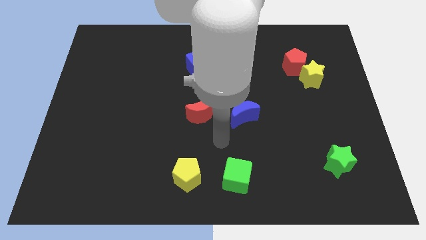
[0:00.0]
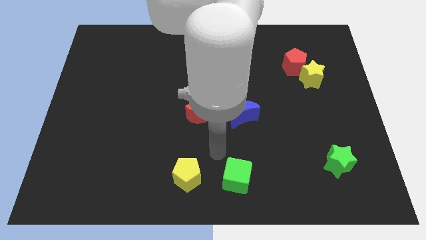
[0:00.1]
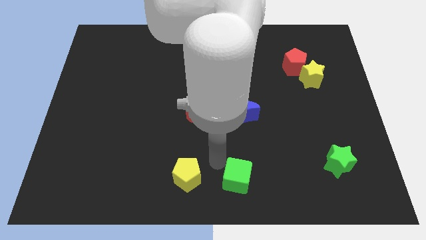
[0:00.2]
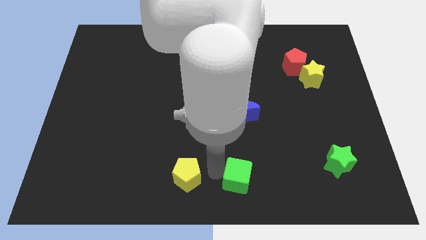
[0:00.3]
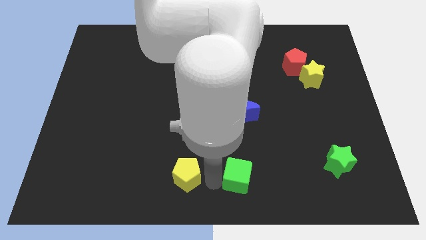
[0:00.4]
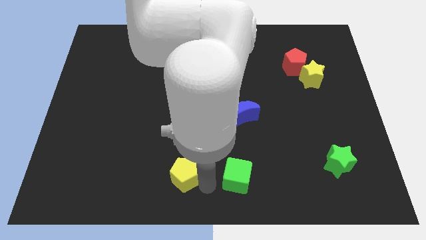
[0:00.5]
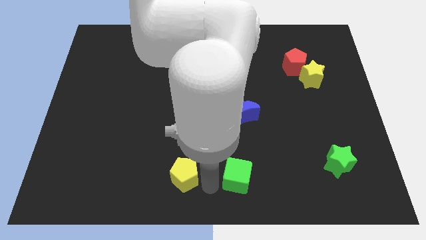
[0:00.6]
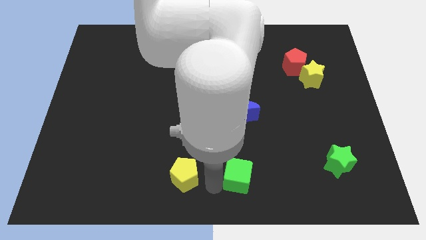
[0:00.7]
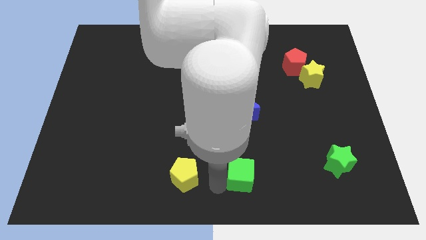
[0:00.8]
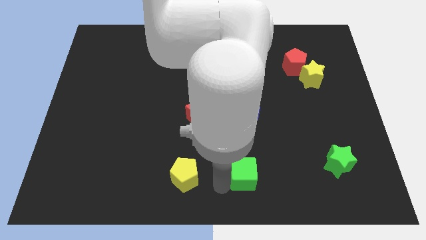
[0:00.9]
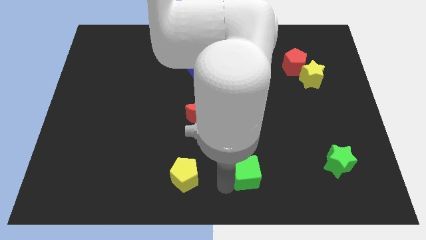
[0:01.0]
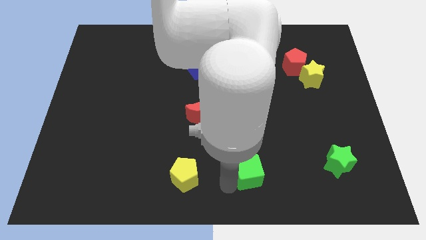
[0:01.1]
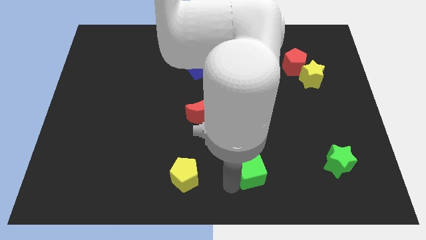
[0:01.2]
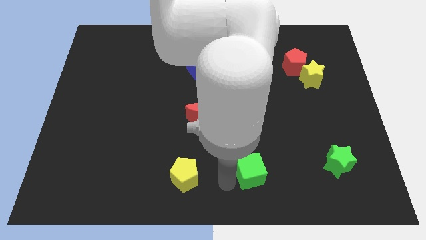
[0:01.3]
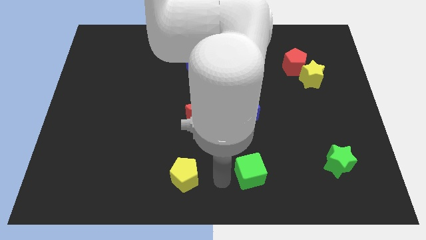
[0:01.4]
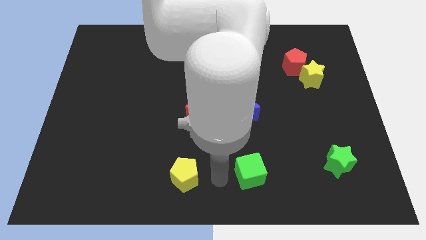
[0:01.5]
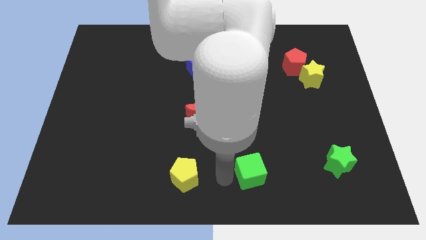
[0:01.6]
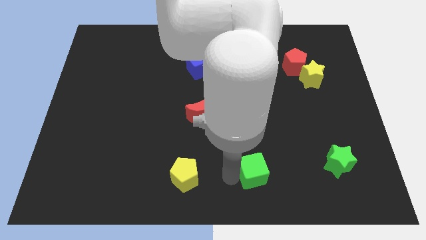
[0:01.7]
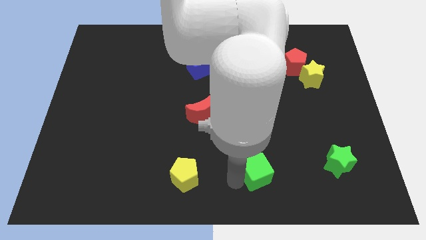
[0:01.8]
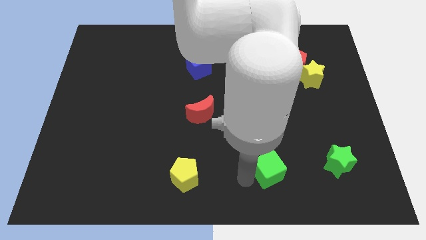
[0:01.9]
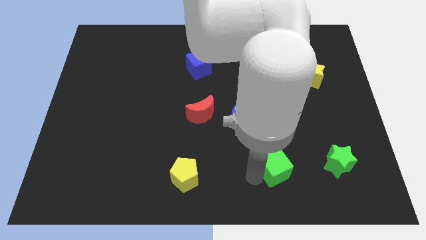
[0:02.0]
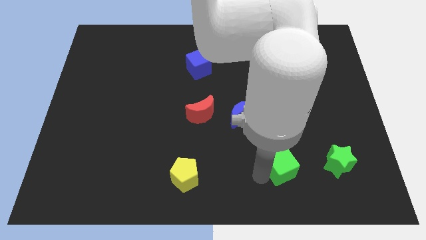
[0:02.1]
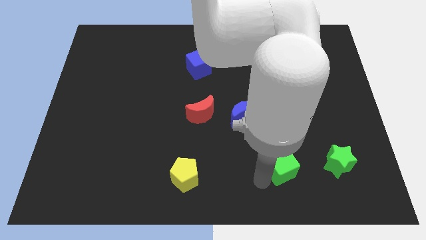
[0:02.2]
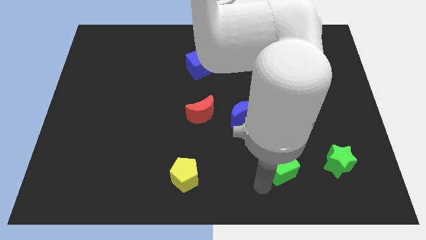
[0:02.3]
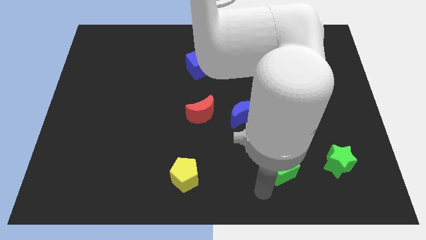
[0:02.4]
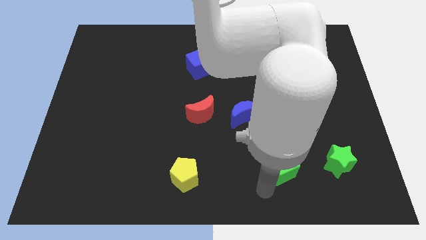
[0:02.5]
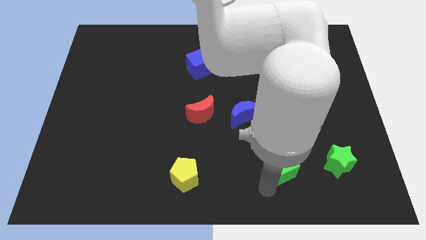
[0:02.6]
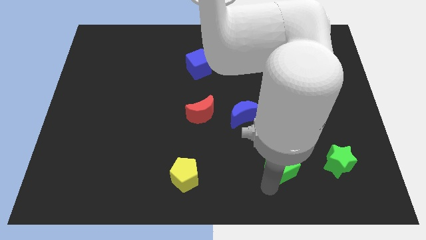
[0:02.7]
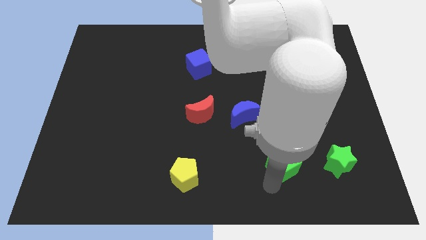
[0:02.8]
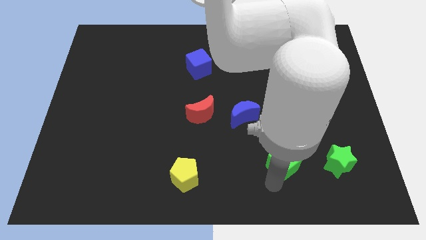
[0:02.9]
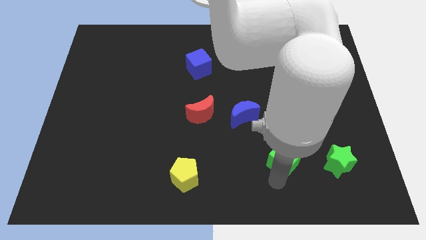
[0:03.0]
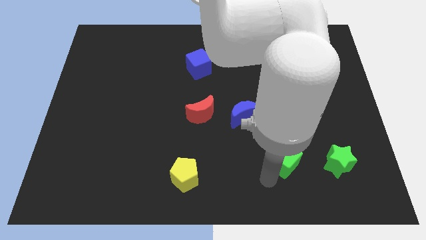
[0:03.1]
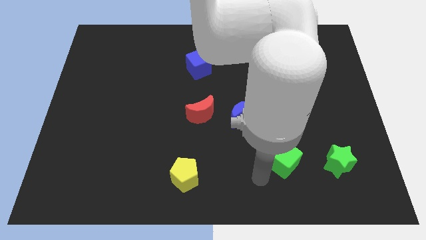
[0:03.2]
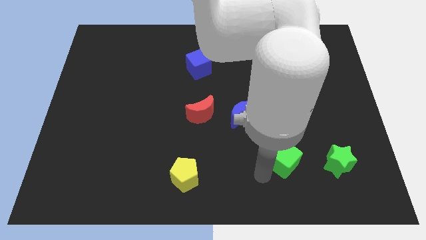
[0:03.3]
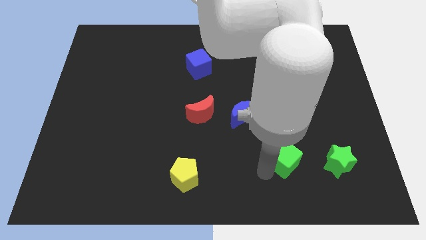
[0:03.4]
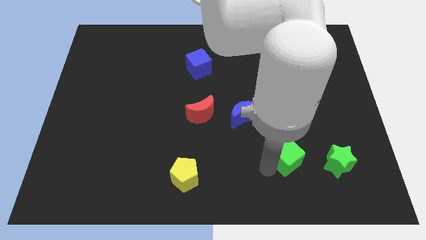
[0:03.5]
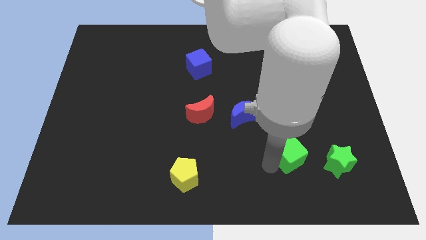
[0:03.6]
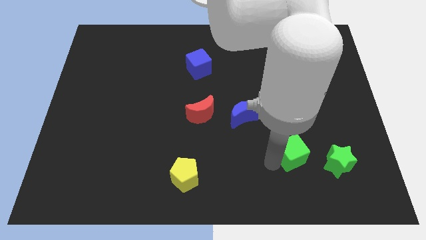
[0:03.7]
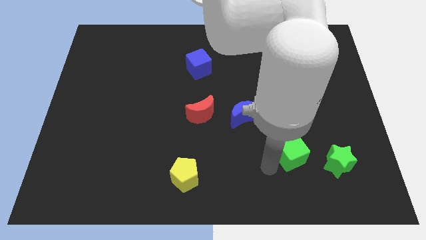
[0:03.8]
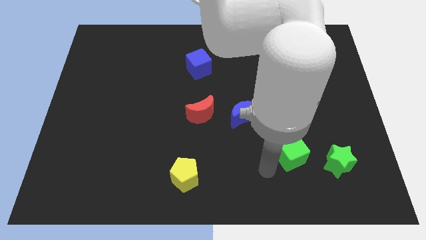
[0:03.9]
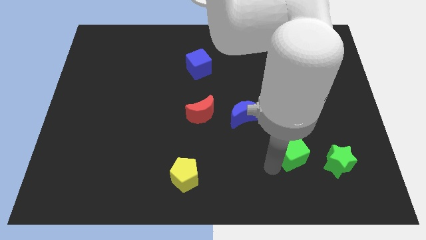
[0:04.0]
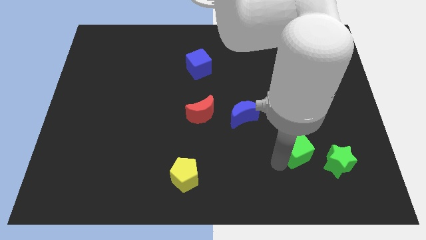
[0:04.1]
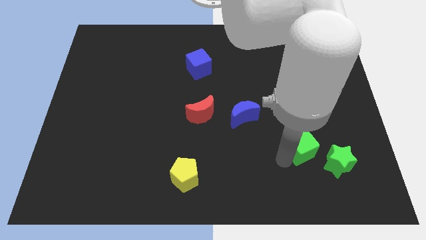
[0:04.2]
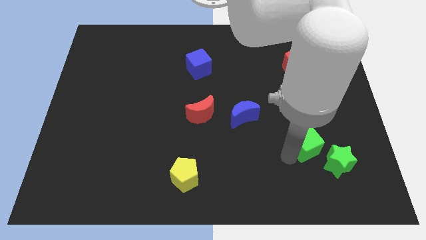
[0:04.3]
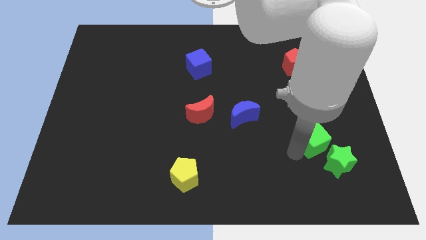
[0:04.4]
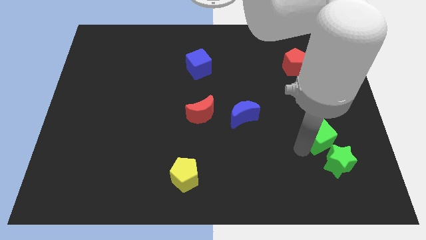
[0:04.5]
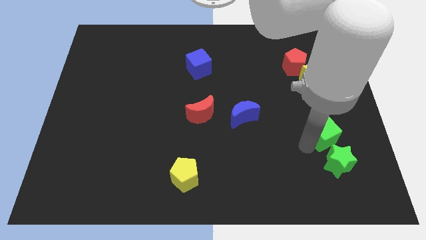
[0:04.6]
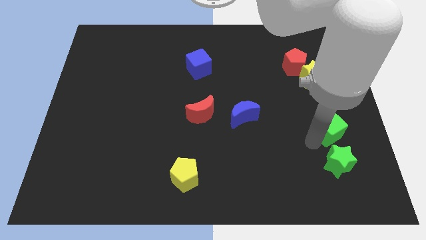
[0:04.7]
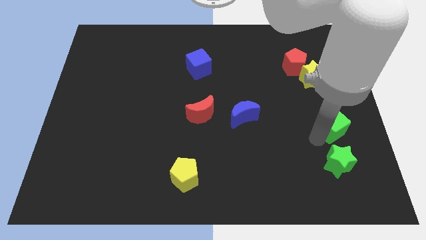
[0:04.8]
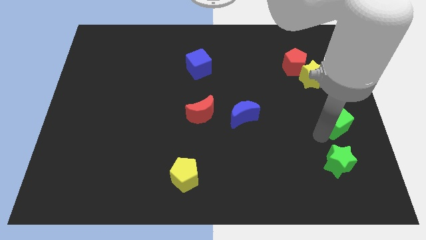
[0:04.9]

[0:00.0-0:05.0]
slide the green cube to the center right

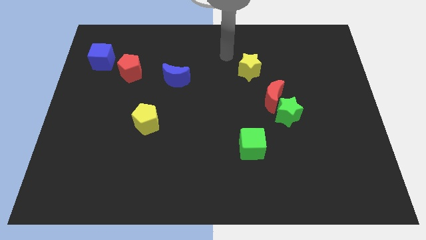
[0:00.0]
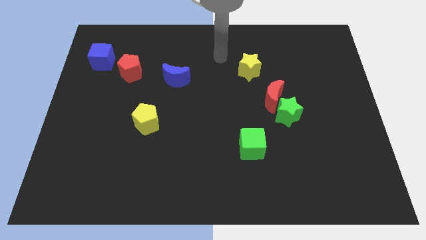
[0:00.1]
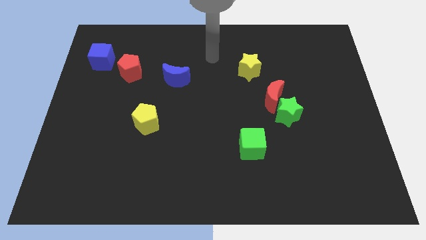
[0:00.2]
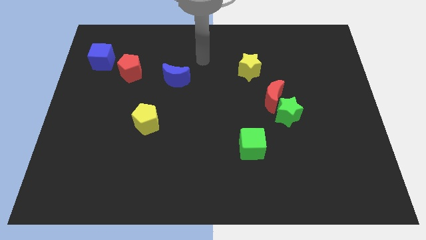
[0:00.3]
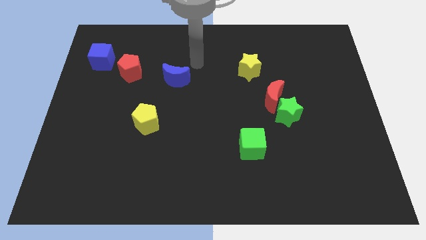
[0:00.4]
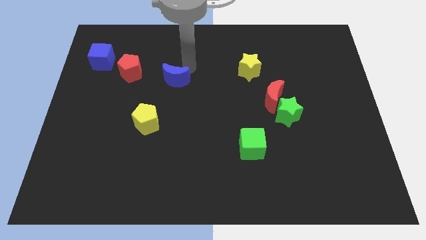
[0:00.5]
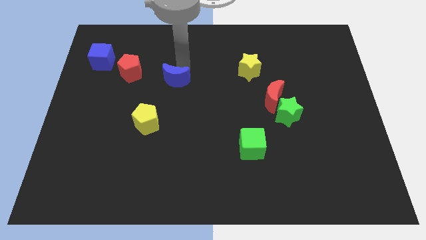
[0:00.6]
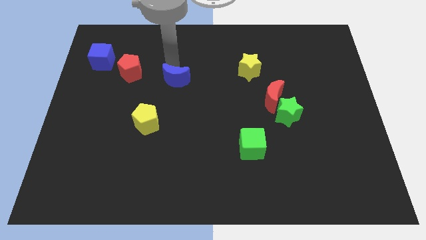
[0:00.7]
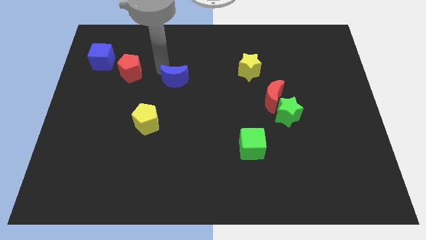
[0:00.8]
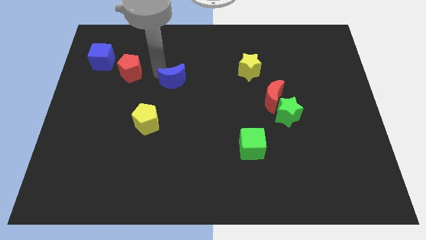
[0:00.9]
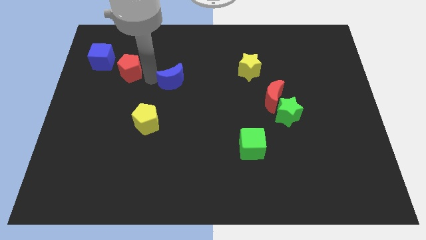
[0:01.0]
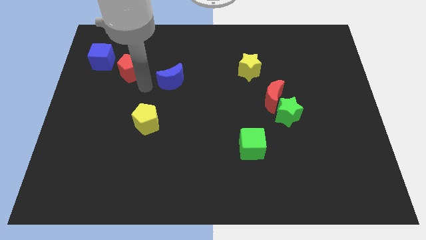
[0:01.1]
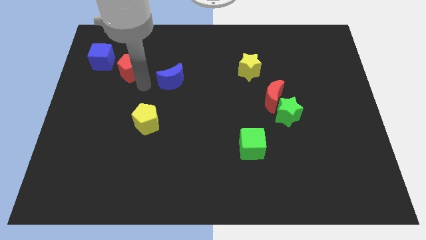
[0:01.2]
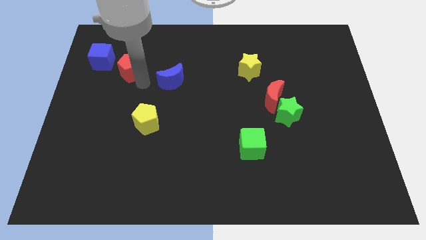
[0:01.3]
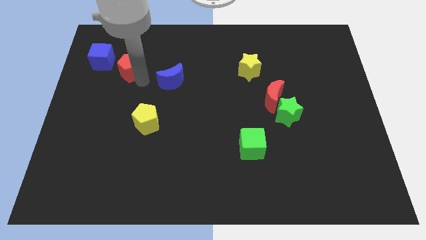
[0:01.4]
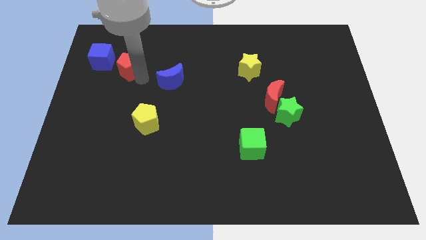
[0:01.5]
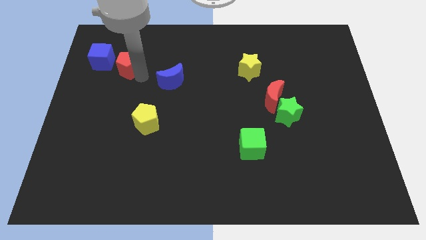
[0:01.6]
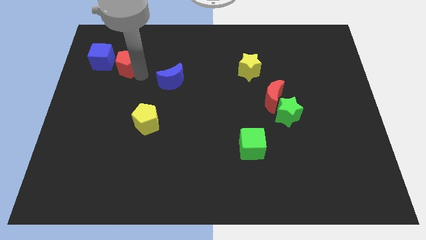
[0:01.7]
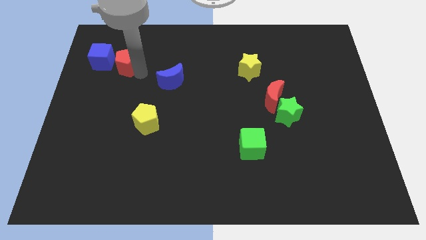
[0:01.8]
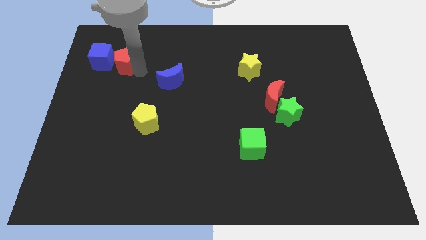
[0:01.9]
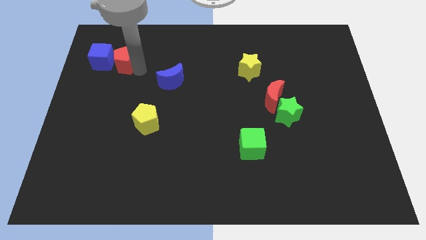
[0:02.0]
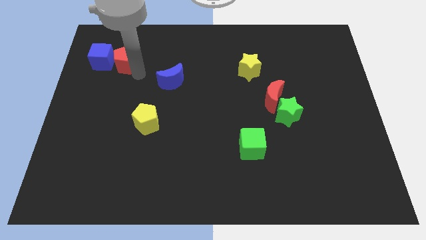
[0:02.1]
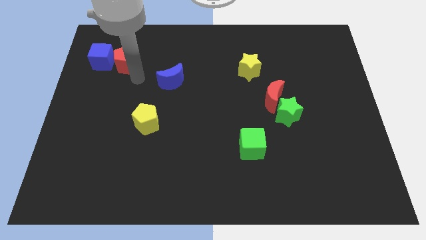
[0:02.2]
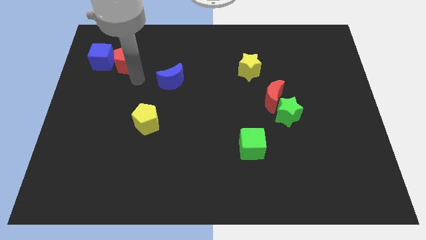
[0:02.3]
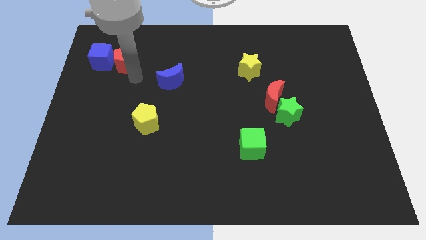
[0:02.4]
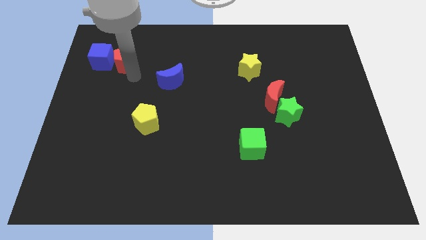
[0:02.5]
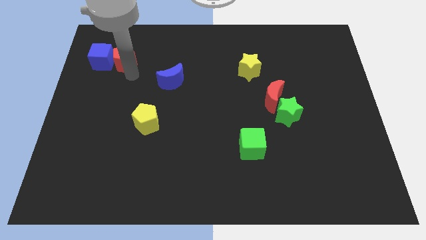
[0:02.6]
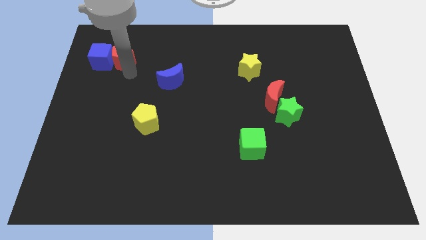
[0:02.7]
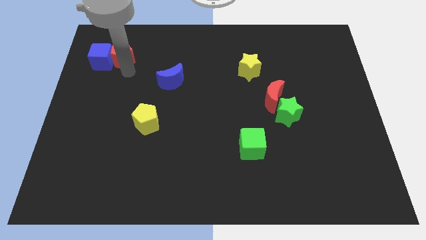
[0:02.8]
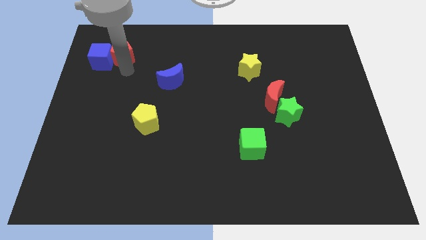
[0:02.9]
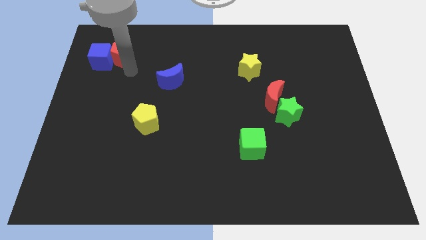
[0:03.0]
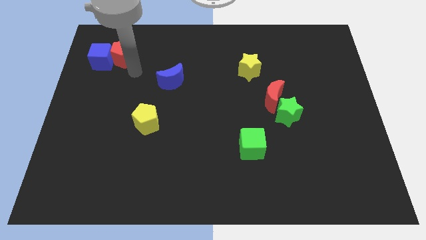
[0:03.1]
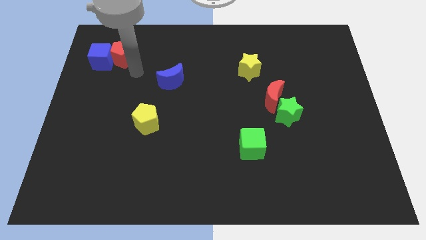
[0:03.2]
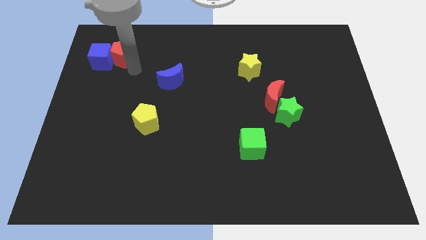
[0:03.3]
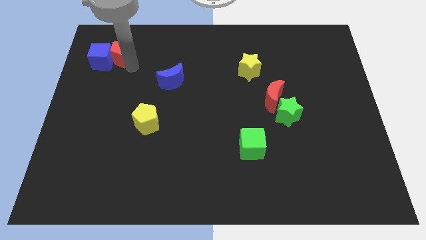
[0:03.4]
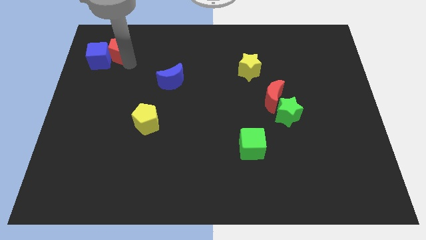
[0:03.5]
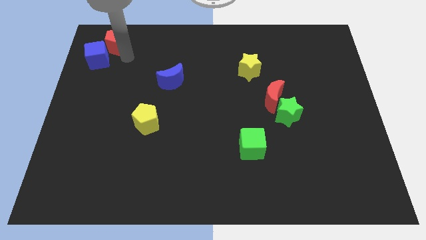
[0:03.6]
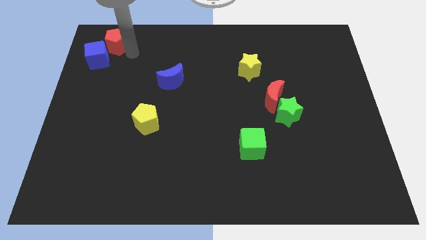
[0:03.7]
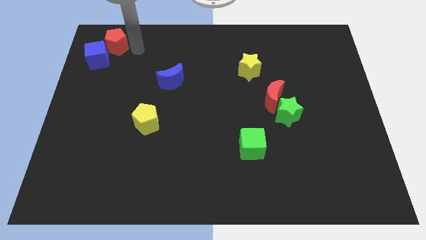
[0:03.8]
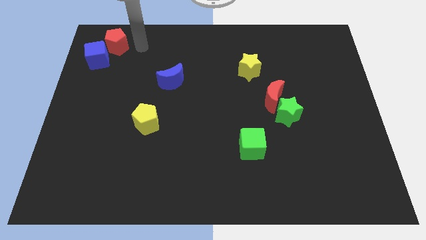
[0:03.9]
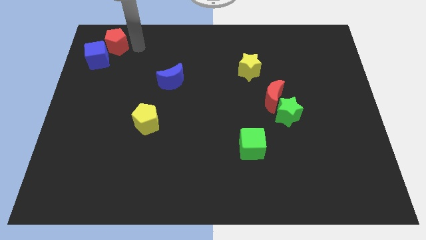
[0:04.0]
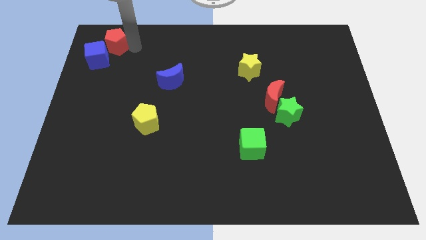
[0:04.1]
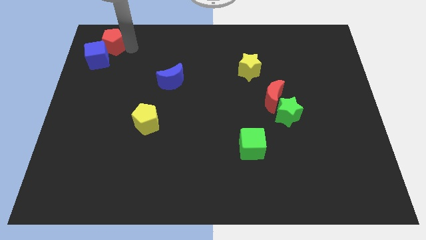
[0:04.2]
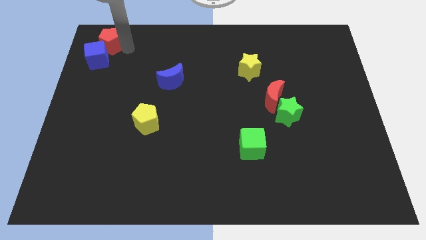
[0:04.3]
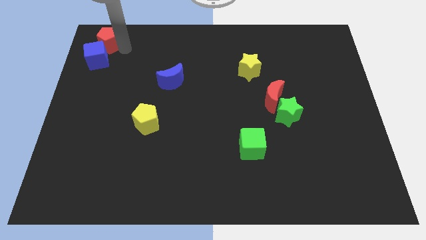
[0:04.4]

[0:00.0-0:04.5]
slide the red pentagon to the upper left corner
